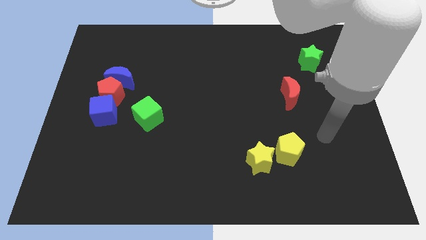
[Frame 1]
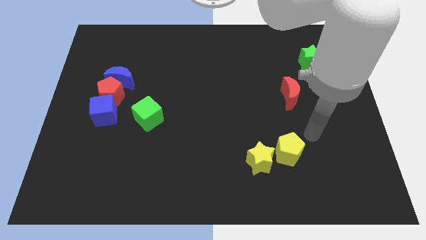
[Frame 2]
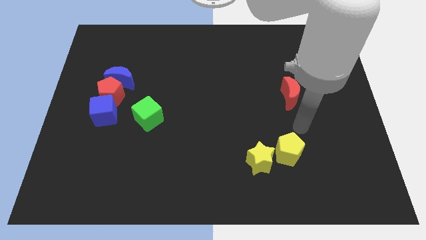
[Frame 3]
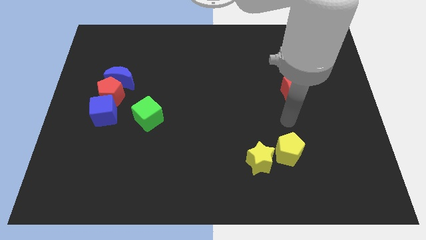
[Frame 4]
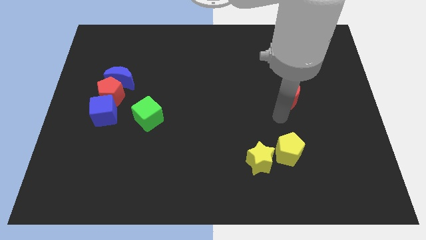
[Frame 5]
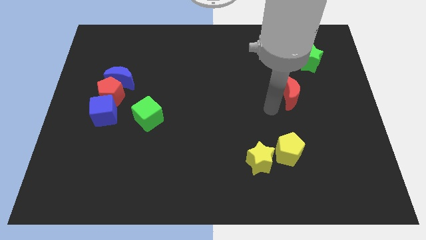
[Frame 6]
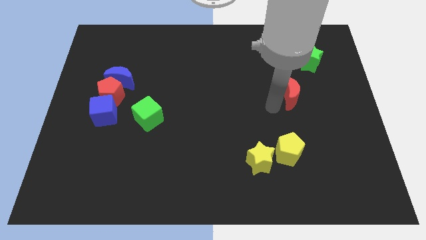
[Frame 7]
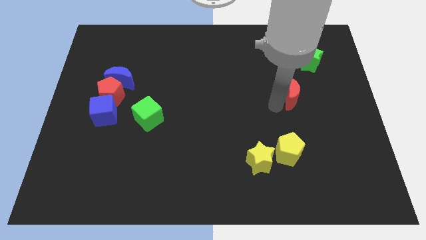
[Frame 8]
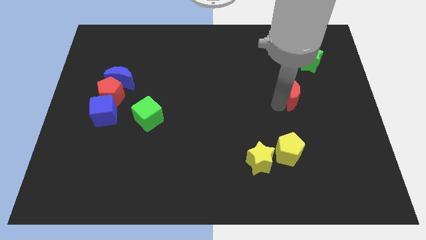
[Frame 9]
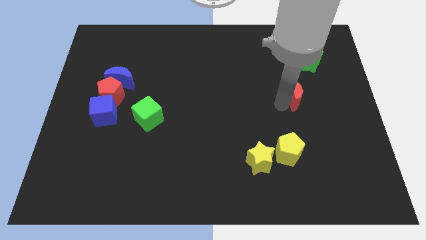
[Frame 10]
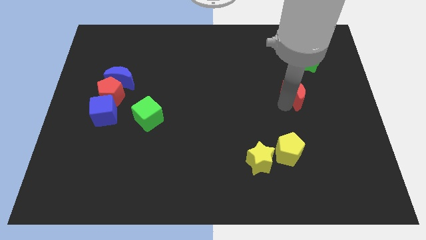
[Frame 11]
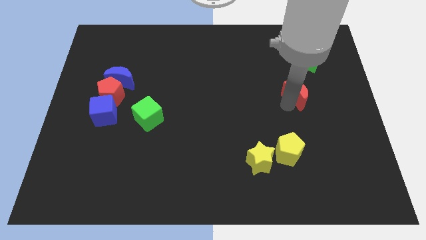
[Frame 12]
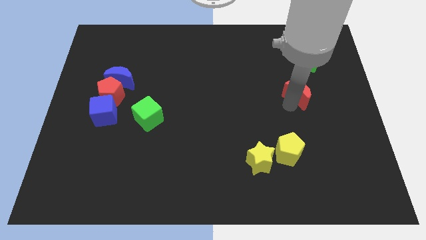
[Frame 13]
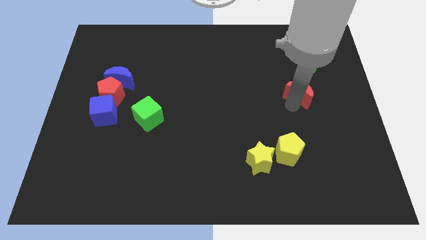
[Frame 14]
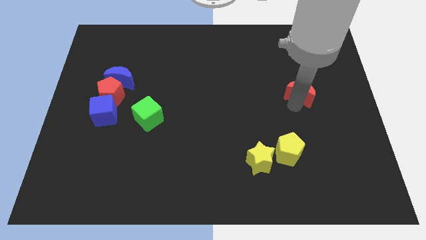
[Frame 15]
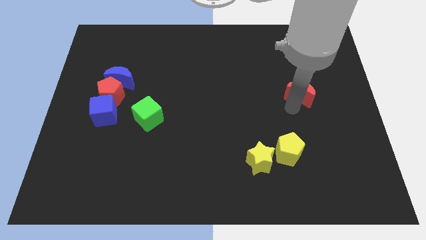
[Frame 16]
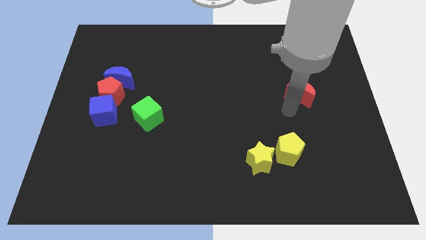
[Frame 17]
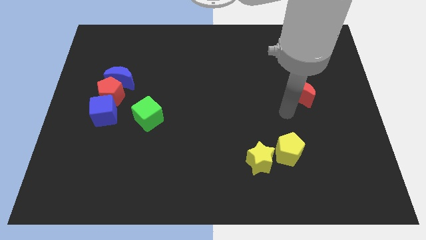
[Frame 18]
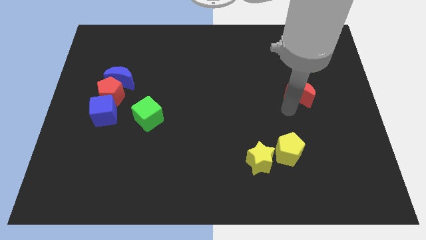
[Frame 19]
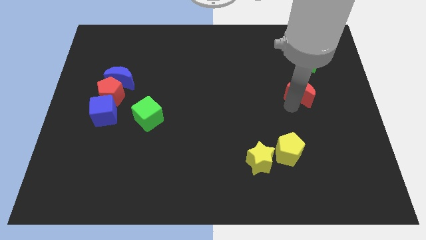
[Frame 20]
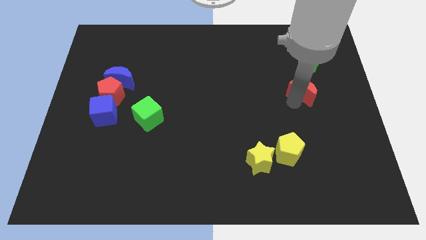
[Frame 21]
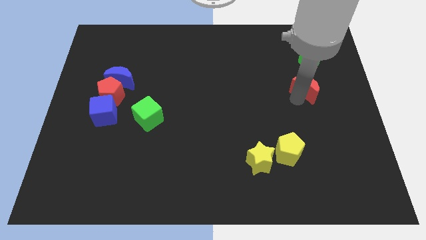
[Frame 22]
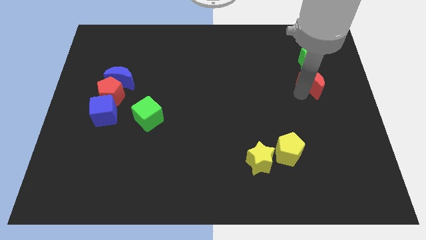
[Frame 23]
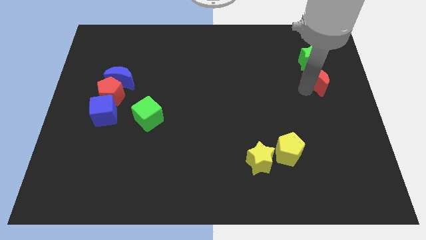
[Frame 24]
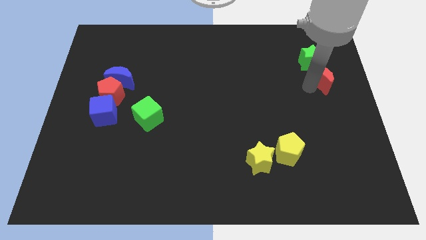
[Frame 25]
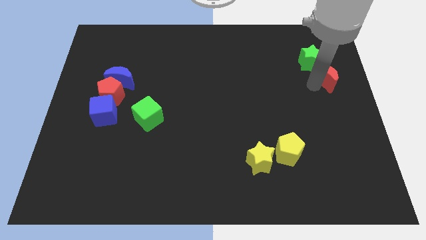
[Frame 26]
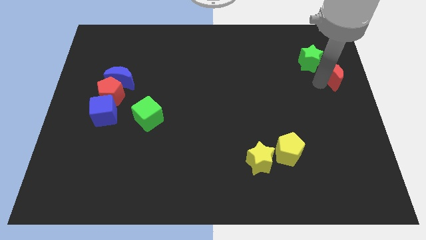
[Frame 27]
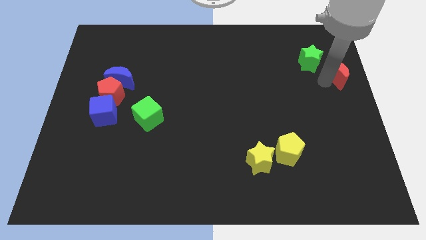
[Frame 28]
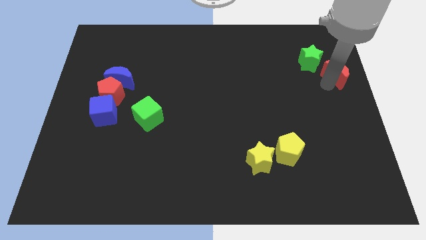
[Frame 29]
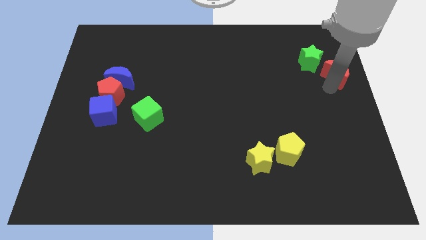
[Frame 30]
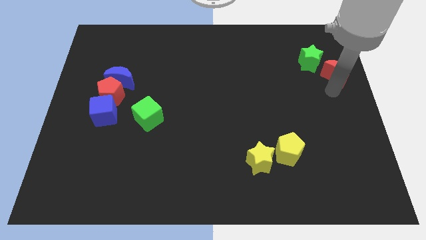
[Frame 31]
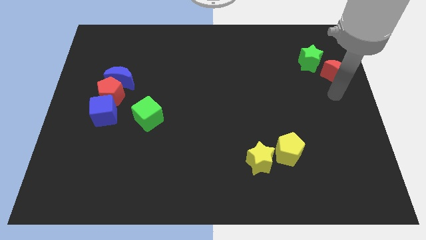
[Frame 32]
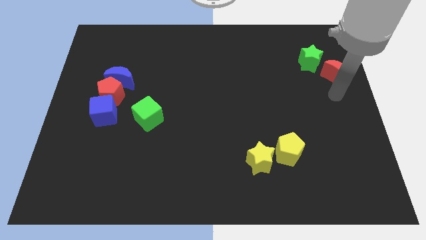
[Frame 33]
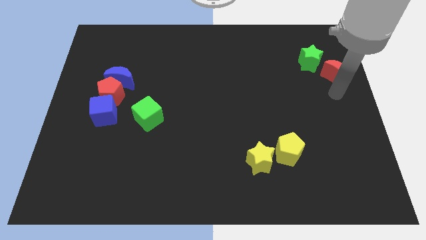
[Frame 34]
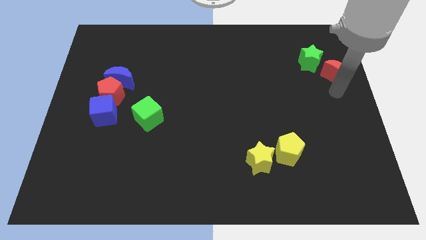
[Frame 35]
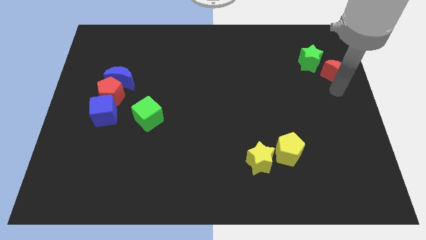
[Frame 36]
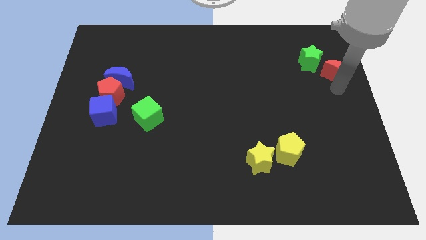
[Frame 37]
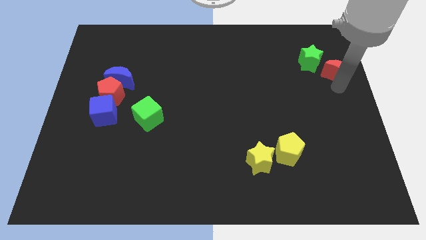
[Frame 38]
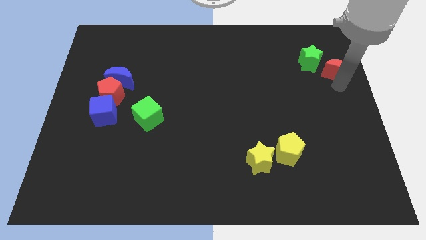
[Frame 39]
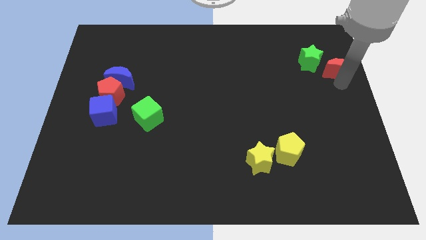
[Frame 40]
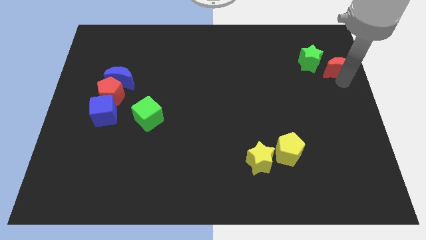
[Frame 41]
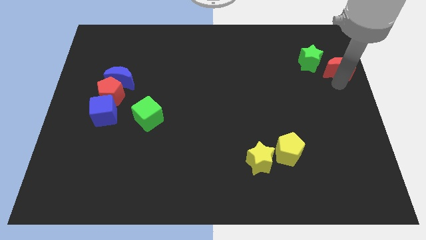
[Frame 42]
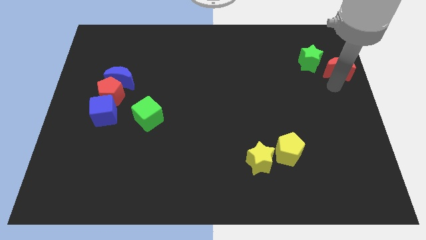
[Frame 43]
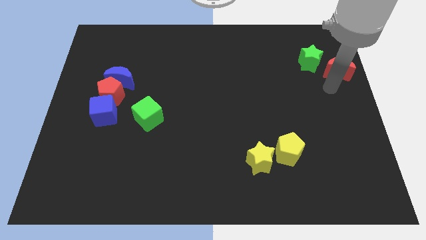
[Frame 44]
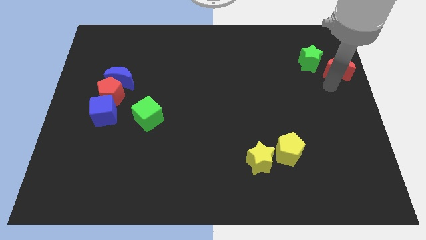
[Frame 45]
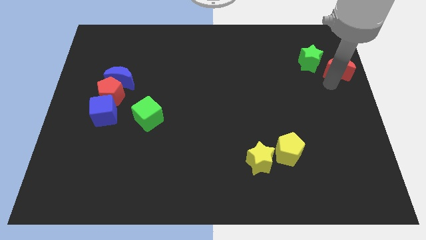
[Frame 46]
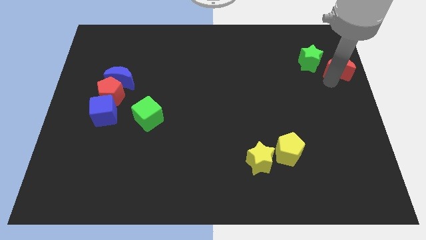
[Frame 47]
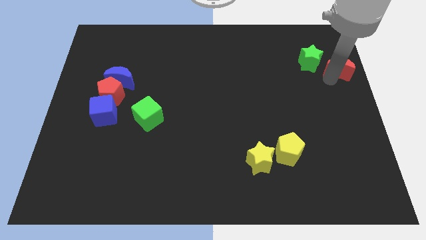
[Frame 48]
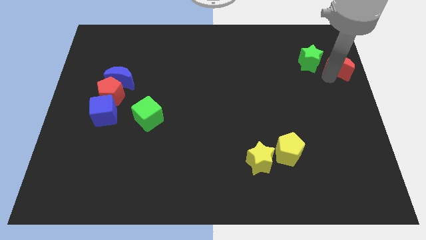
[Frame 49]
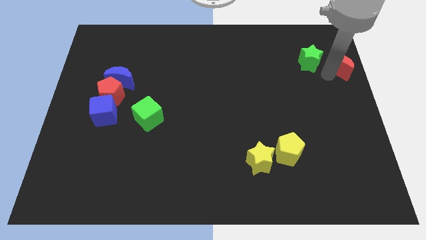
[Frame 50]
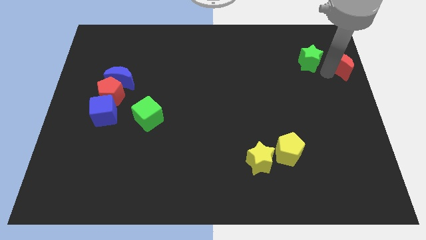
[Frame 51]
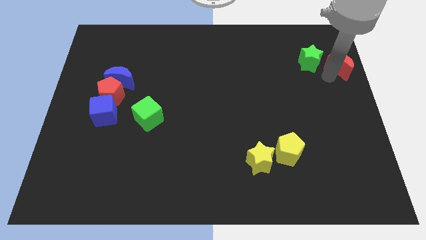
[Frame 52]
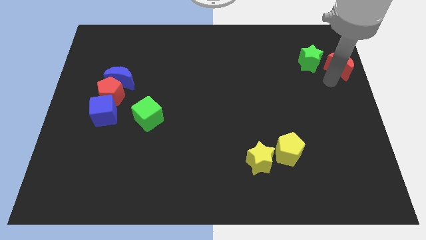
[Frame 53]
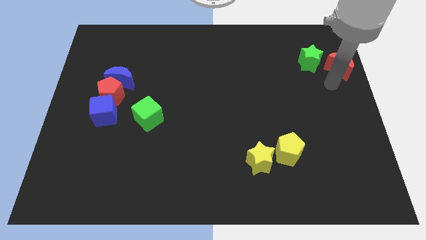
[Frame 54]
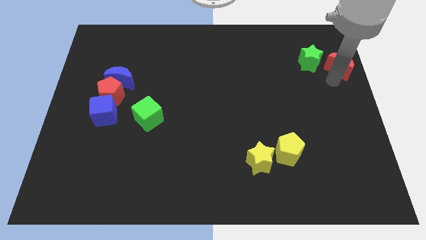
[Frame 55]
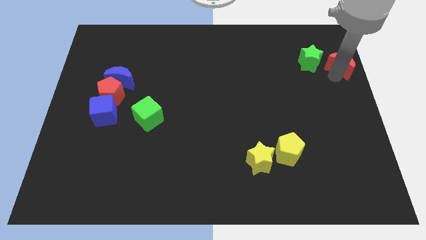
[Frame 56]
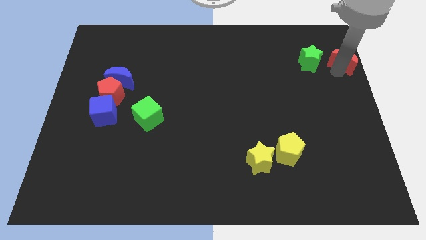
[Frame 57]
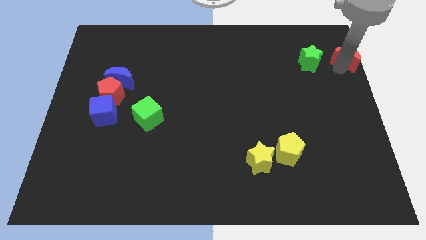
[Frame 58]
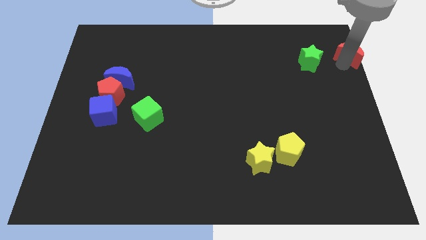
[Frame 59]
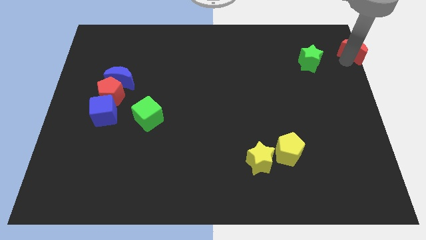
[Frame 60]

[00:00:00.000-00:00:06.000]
put the red moon to the upper right corner

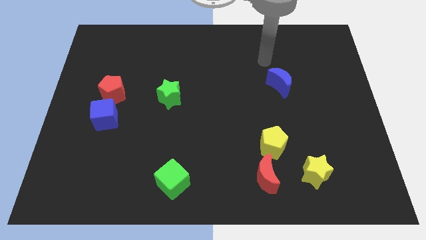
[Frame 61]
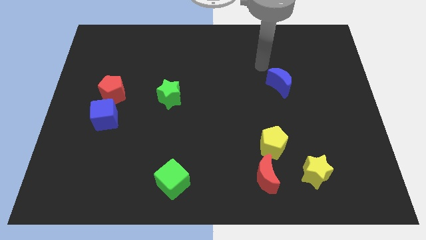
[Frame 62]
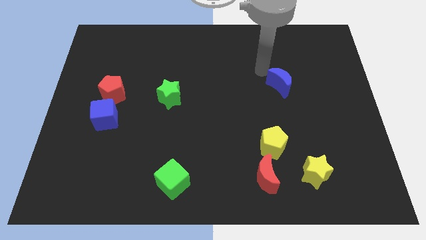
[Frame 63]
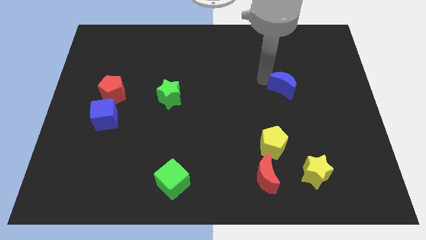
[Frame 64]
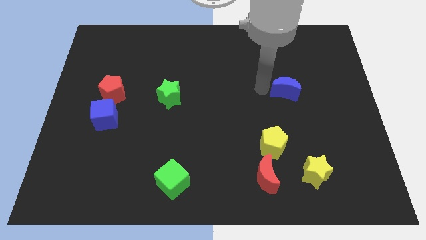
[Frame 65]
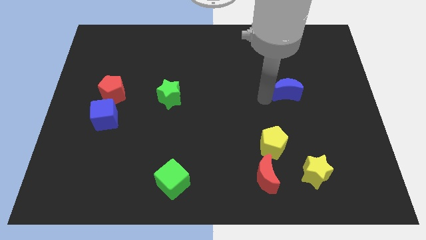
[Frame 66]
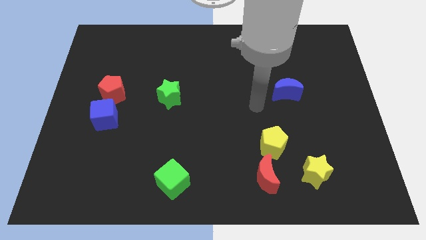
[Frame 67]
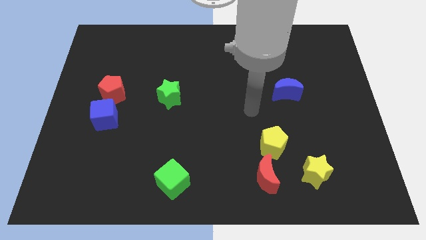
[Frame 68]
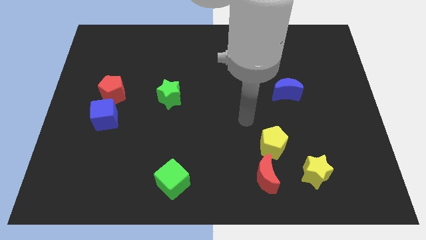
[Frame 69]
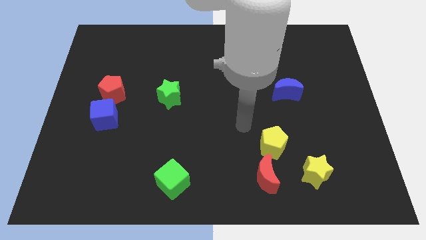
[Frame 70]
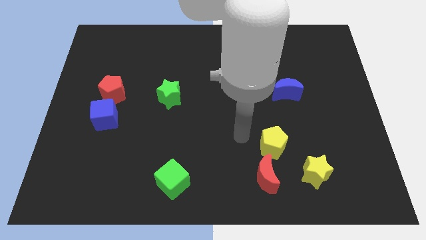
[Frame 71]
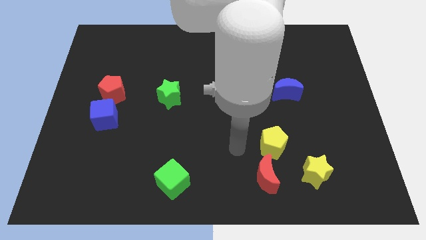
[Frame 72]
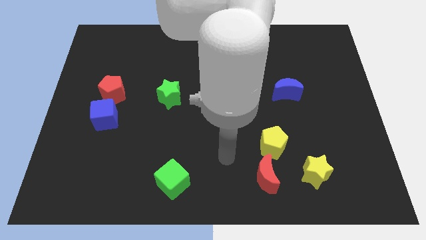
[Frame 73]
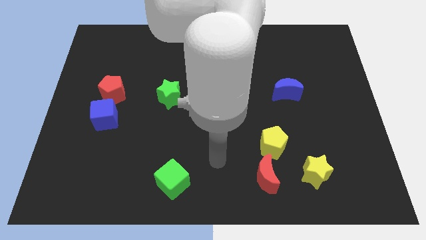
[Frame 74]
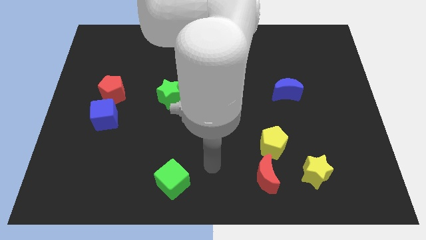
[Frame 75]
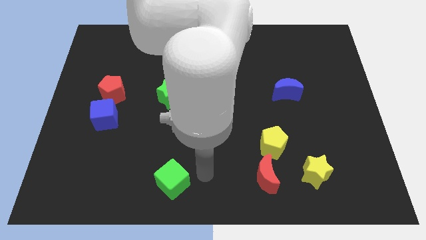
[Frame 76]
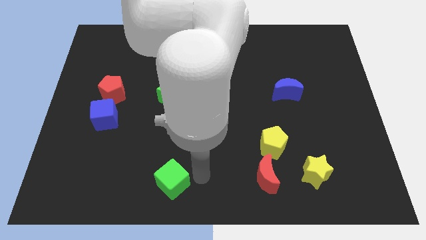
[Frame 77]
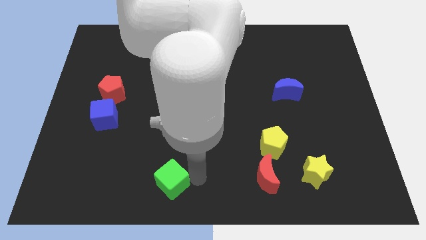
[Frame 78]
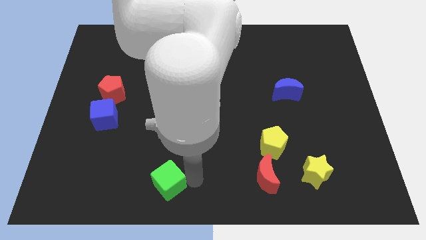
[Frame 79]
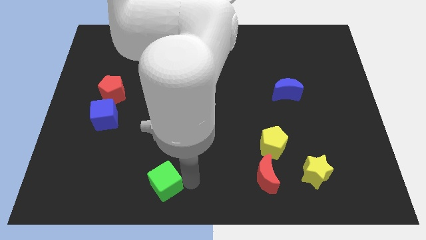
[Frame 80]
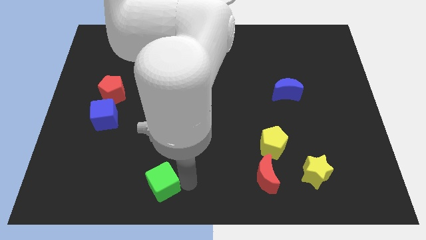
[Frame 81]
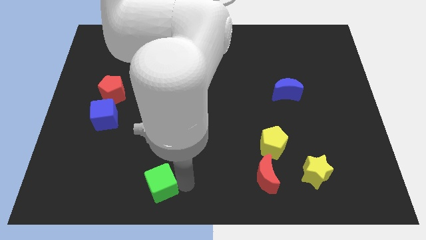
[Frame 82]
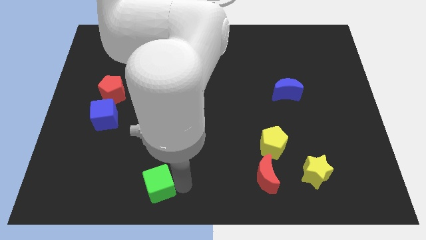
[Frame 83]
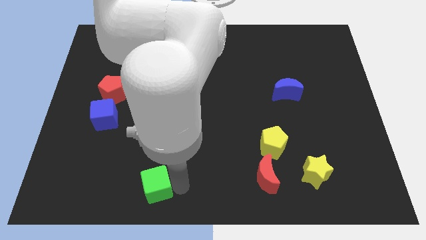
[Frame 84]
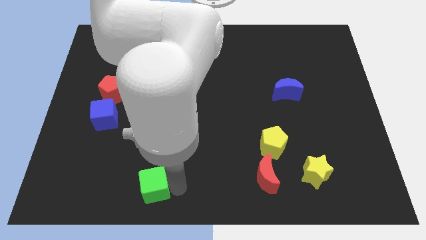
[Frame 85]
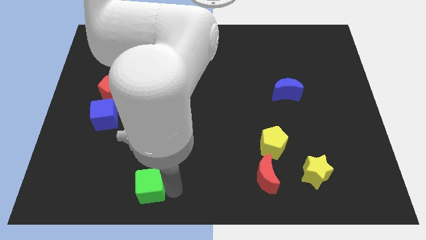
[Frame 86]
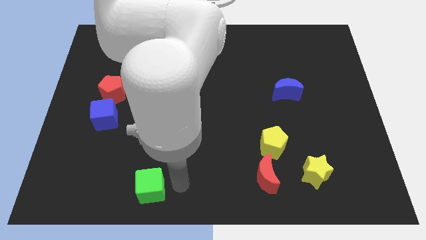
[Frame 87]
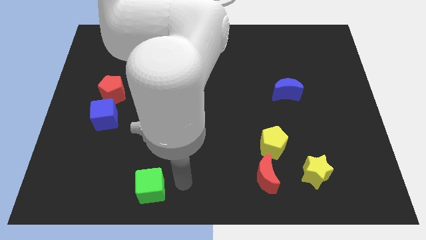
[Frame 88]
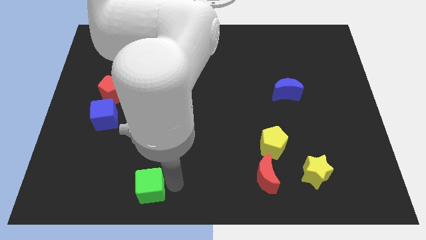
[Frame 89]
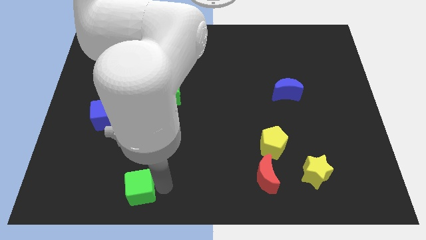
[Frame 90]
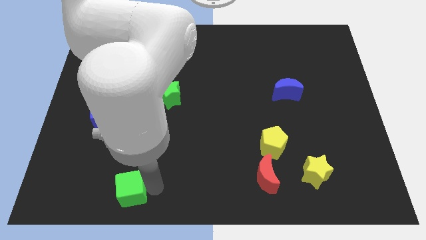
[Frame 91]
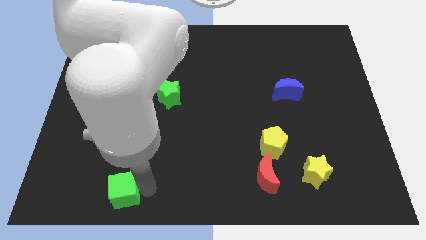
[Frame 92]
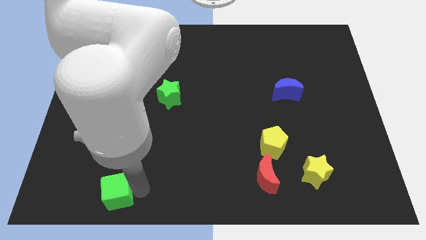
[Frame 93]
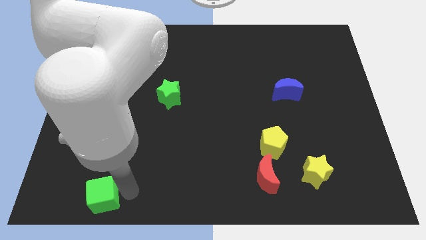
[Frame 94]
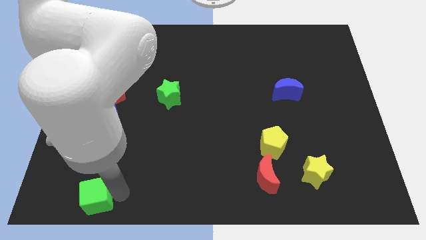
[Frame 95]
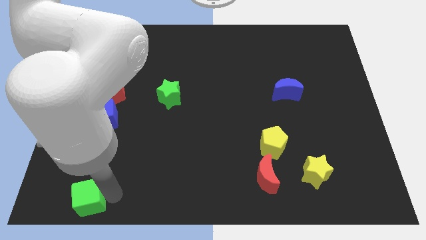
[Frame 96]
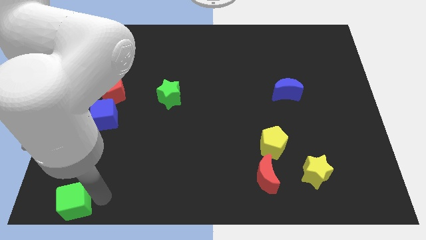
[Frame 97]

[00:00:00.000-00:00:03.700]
push the green cube to the bottom left corner
